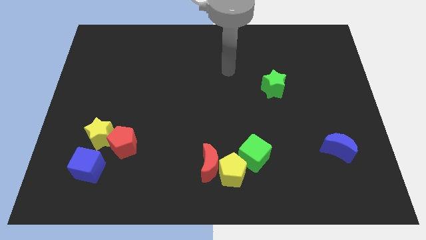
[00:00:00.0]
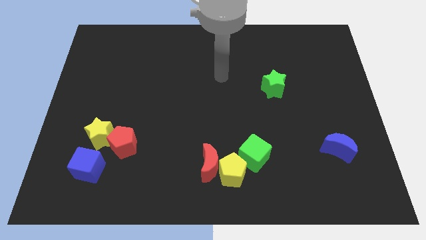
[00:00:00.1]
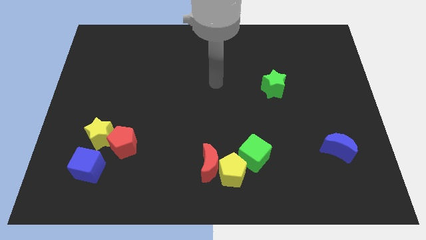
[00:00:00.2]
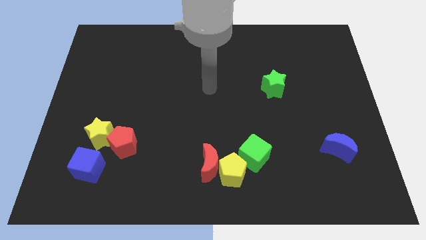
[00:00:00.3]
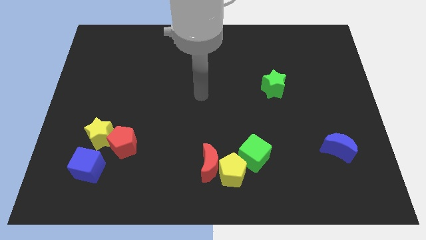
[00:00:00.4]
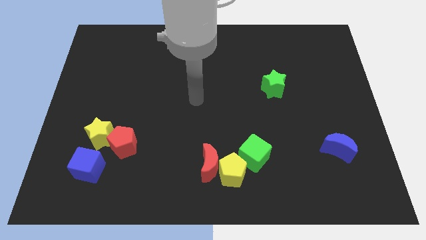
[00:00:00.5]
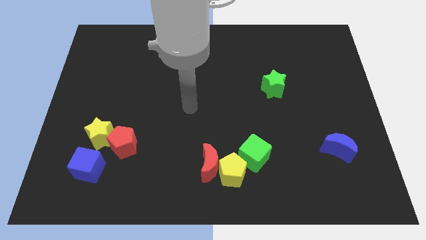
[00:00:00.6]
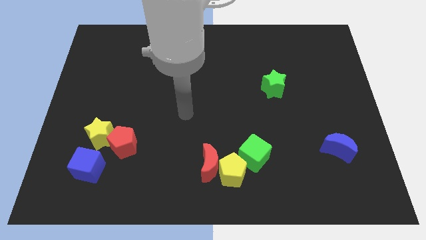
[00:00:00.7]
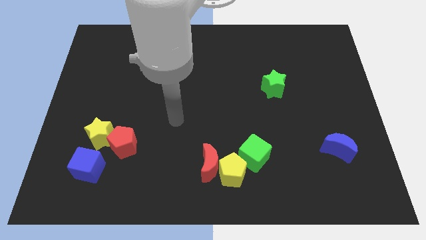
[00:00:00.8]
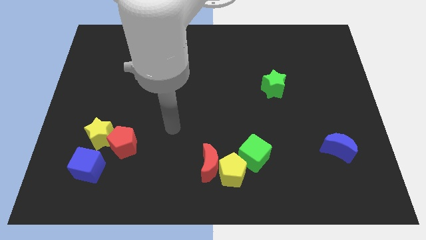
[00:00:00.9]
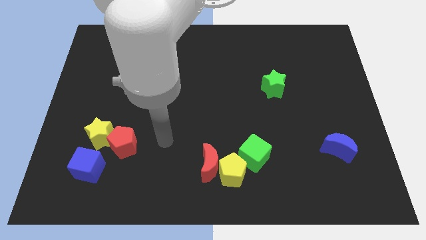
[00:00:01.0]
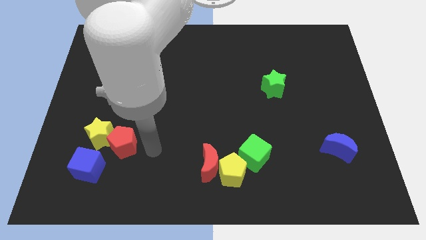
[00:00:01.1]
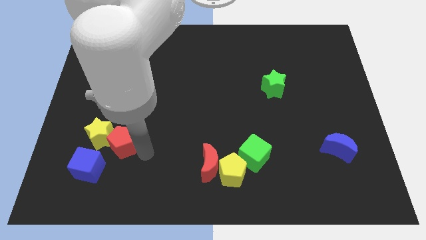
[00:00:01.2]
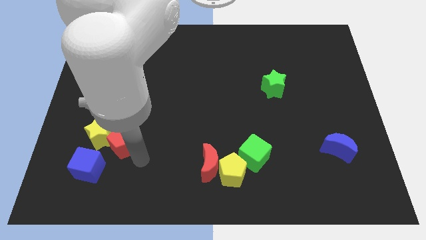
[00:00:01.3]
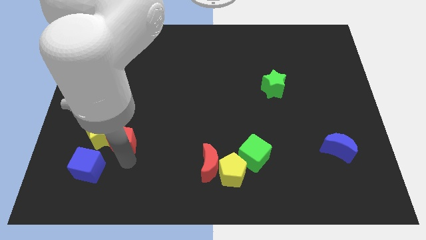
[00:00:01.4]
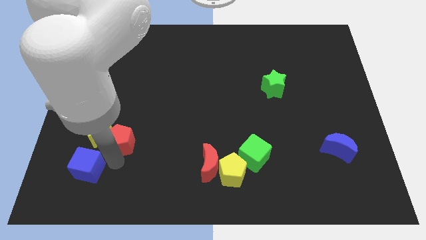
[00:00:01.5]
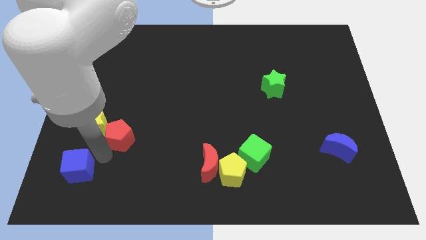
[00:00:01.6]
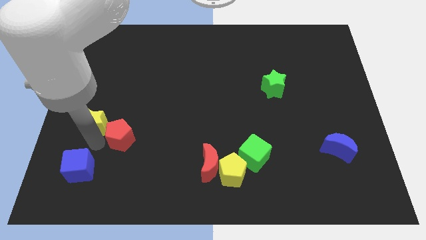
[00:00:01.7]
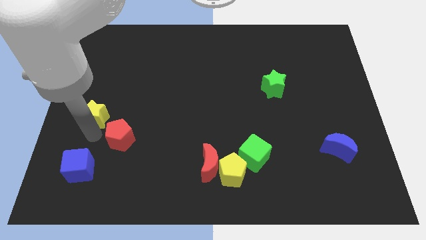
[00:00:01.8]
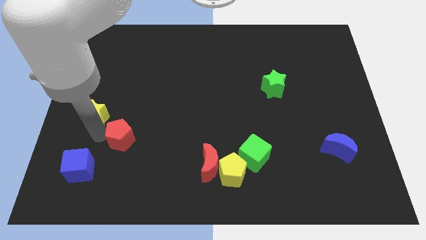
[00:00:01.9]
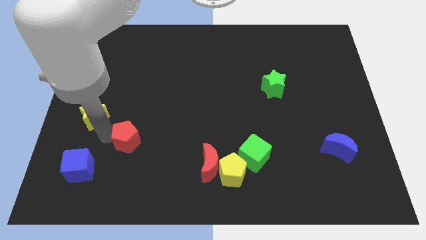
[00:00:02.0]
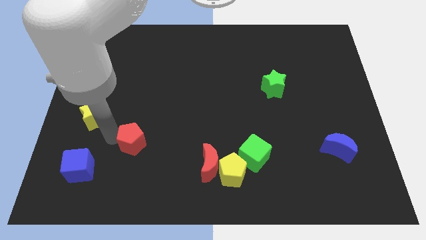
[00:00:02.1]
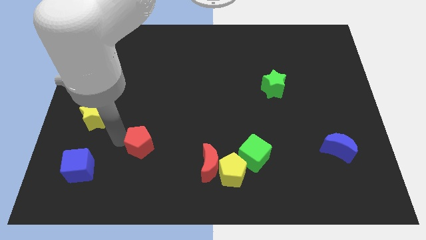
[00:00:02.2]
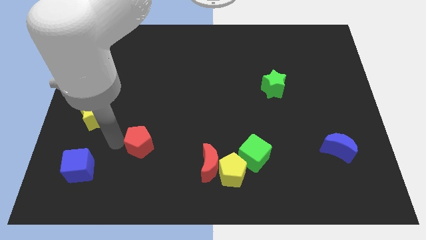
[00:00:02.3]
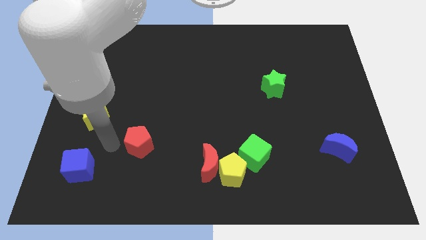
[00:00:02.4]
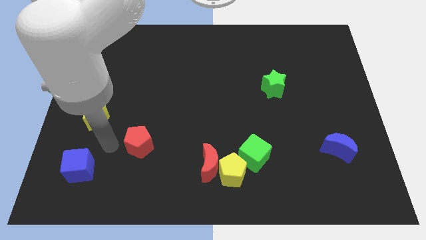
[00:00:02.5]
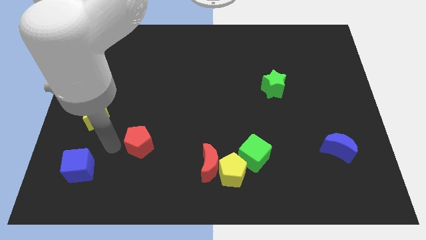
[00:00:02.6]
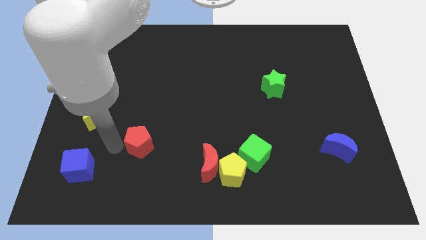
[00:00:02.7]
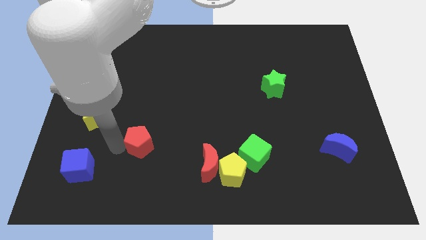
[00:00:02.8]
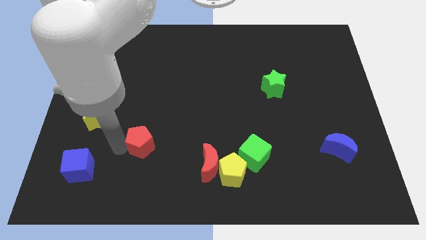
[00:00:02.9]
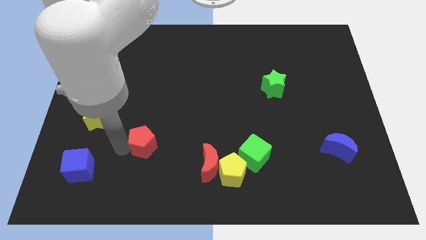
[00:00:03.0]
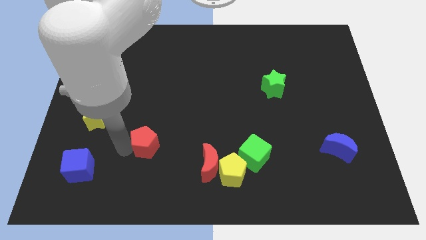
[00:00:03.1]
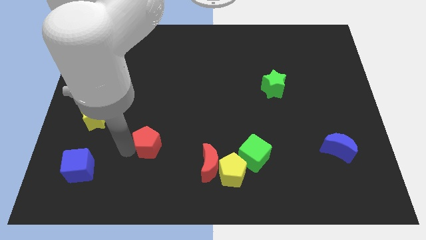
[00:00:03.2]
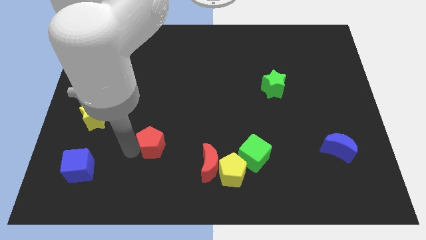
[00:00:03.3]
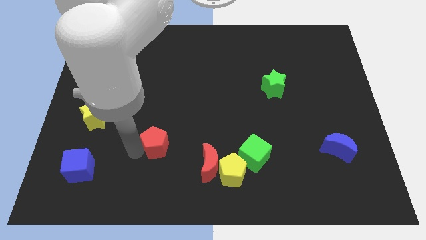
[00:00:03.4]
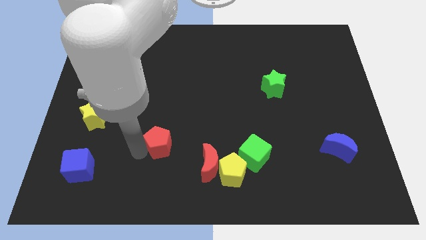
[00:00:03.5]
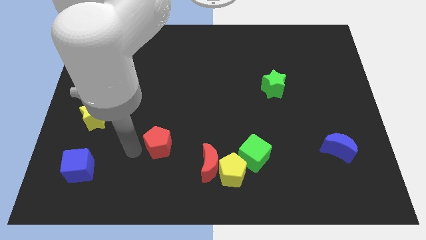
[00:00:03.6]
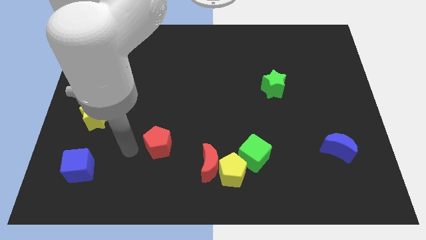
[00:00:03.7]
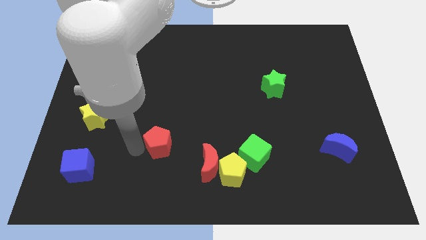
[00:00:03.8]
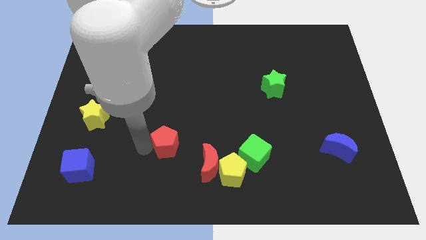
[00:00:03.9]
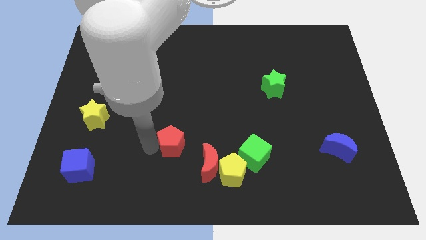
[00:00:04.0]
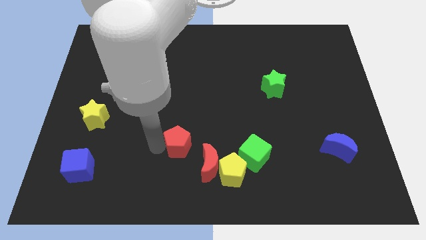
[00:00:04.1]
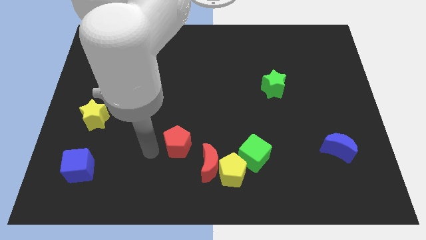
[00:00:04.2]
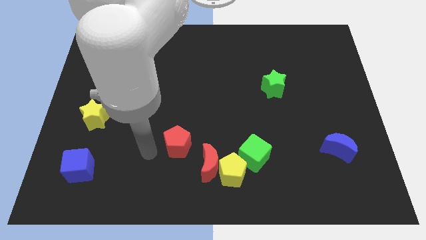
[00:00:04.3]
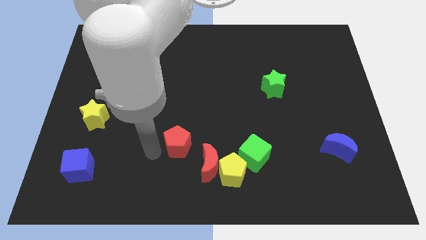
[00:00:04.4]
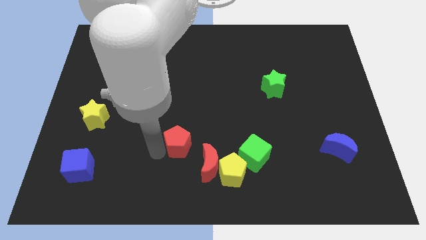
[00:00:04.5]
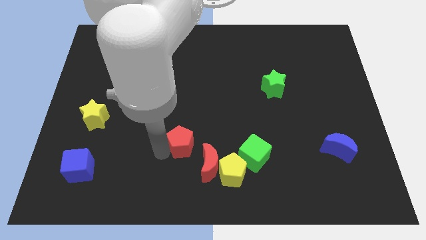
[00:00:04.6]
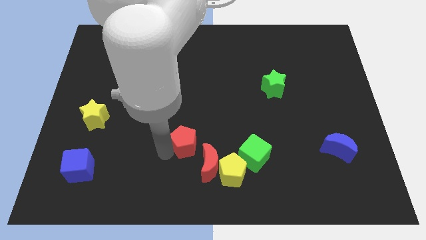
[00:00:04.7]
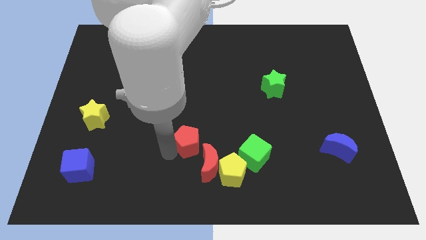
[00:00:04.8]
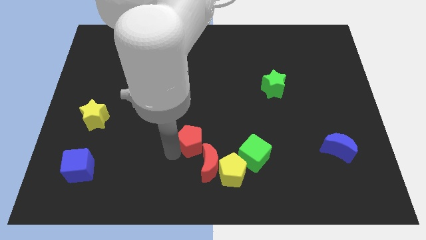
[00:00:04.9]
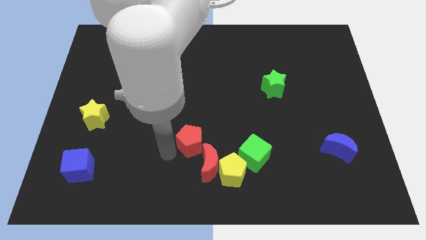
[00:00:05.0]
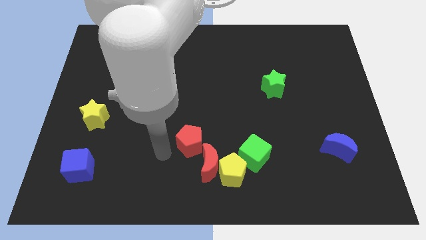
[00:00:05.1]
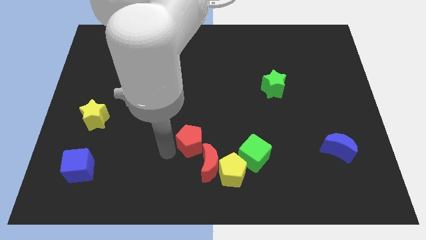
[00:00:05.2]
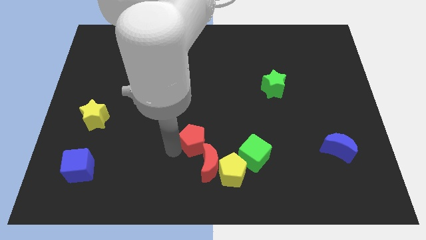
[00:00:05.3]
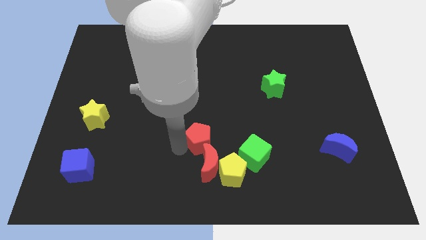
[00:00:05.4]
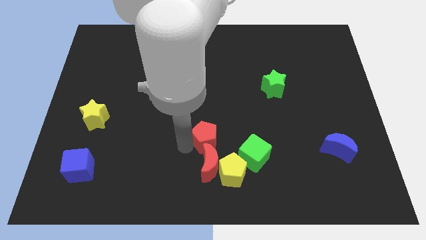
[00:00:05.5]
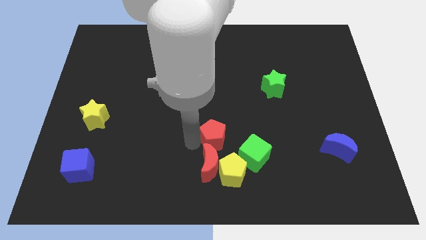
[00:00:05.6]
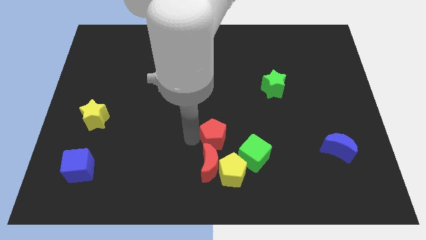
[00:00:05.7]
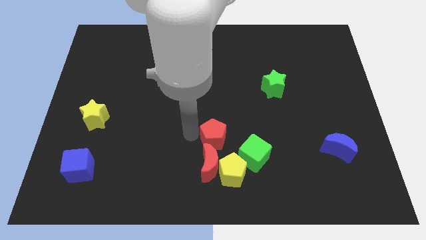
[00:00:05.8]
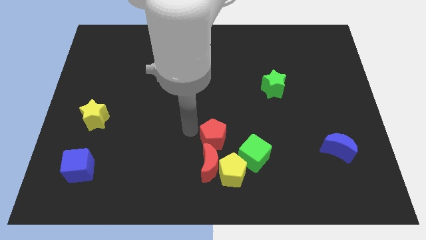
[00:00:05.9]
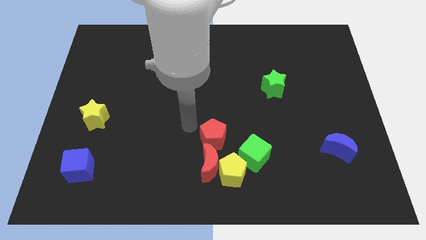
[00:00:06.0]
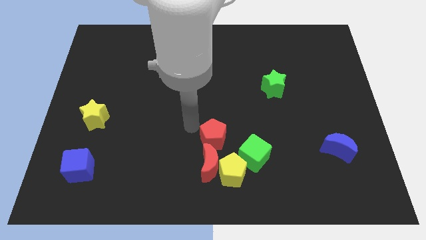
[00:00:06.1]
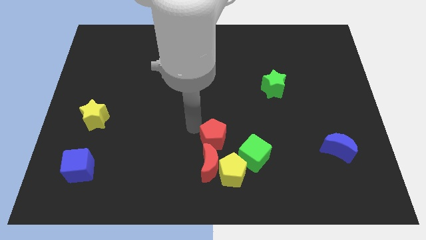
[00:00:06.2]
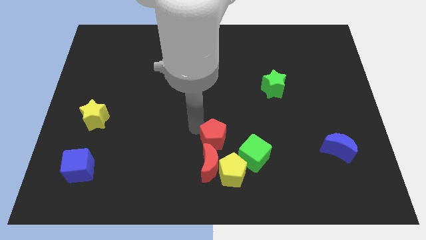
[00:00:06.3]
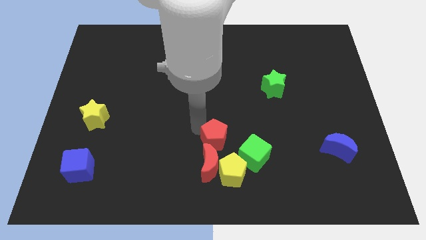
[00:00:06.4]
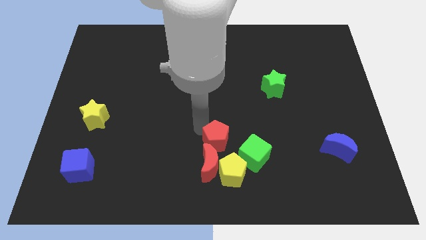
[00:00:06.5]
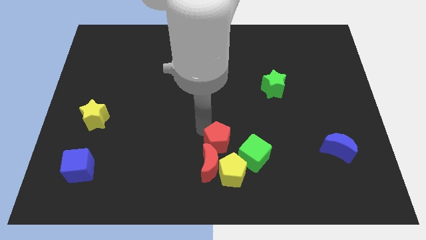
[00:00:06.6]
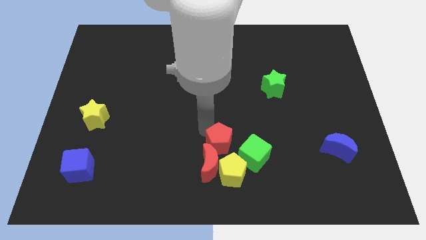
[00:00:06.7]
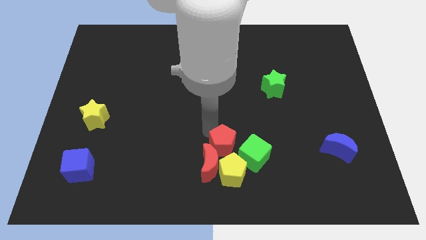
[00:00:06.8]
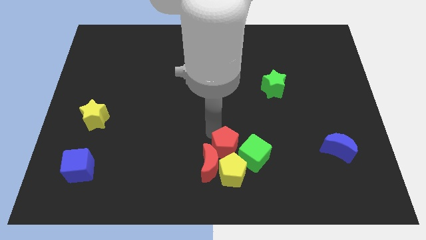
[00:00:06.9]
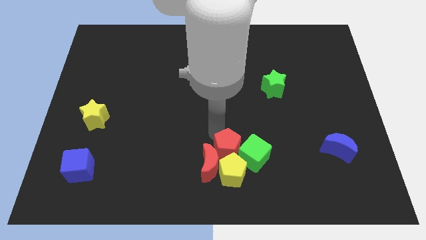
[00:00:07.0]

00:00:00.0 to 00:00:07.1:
slide the red pentagon next to the green cube
